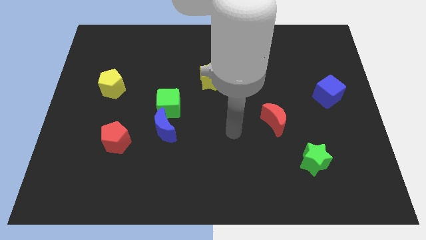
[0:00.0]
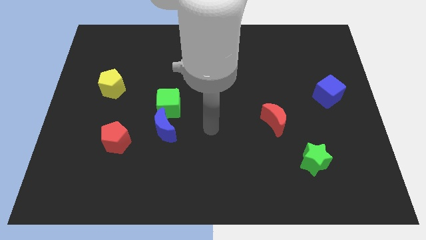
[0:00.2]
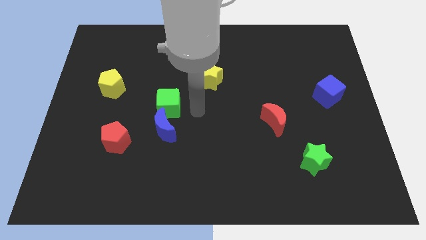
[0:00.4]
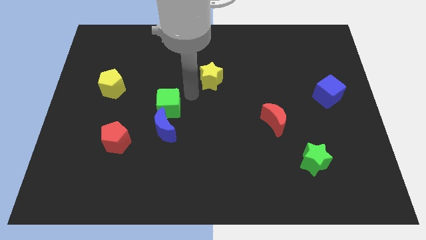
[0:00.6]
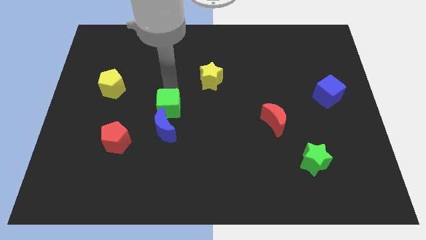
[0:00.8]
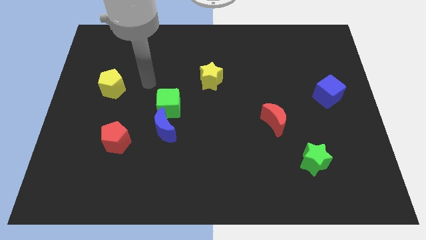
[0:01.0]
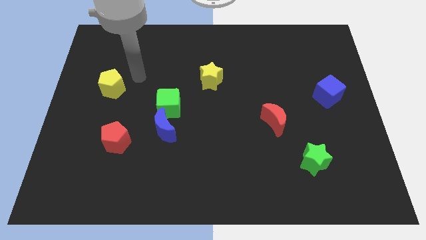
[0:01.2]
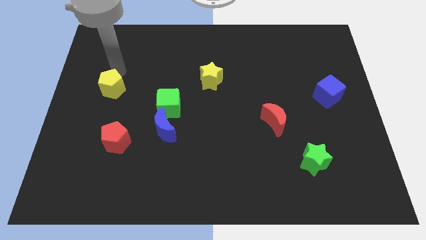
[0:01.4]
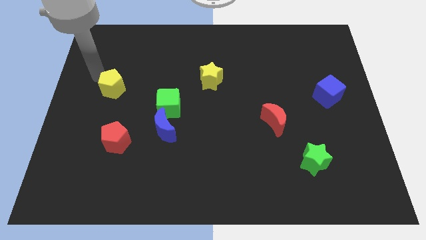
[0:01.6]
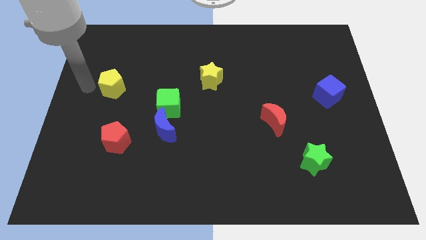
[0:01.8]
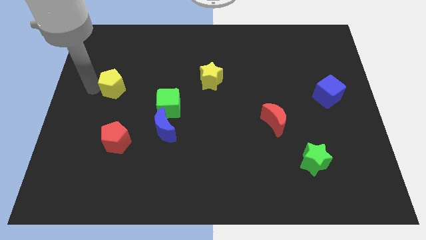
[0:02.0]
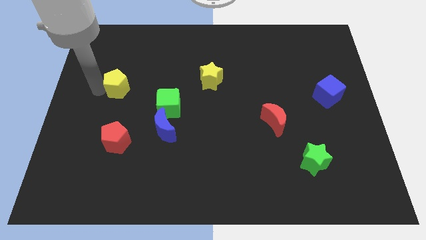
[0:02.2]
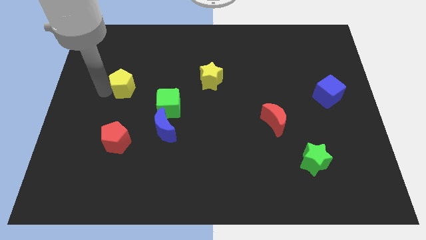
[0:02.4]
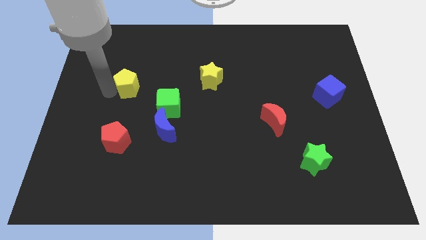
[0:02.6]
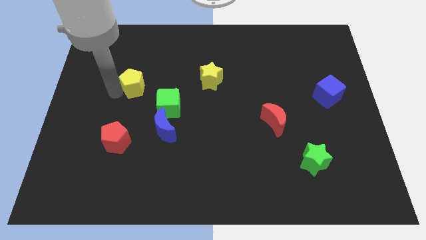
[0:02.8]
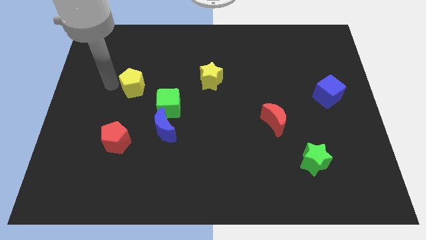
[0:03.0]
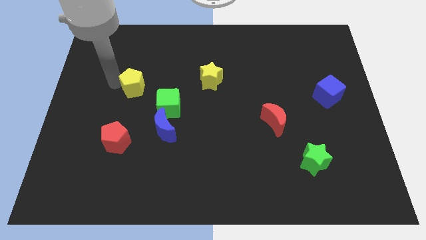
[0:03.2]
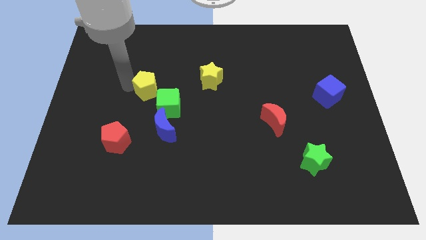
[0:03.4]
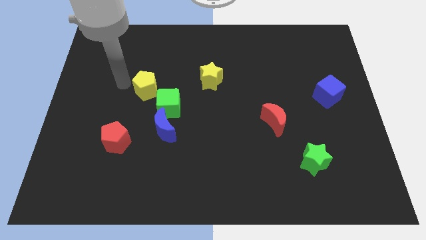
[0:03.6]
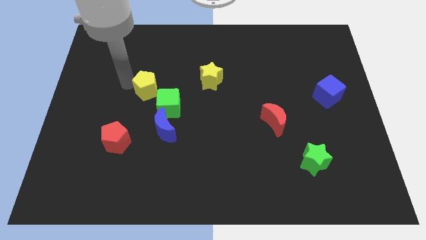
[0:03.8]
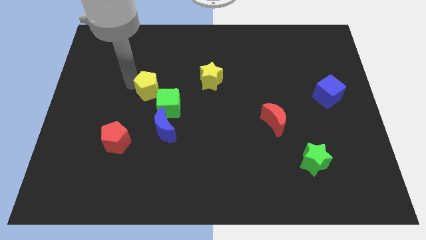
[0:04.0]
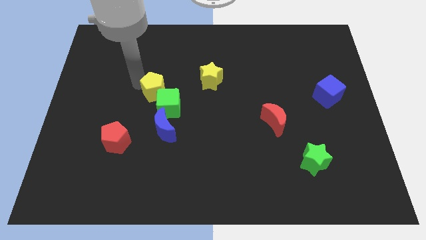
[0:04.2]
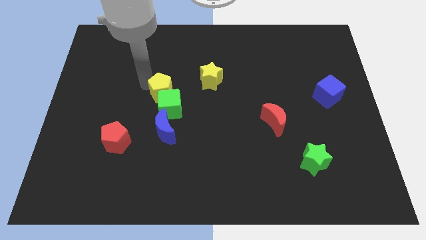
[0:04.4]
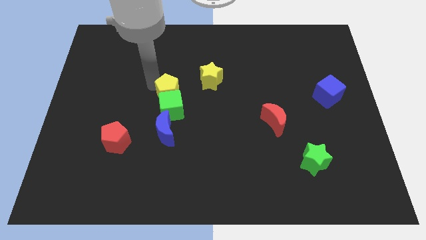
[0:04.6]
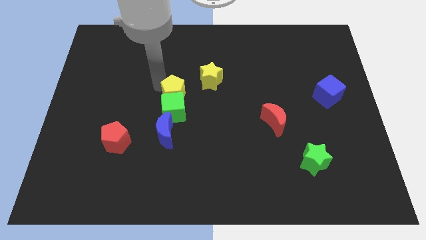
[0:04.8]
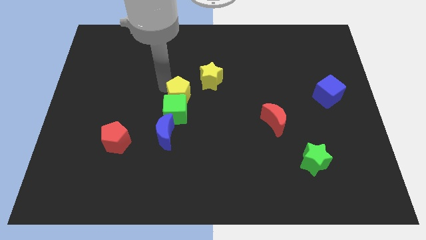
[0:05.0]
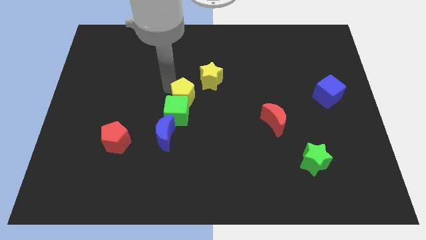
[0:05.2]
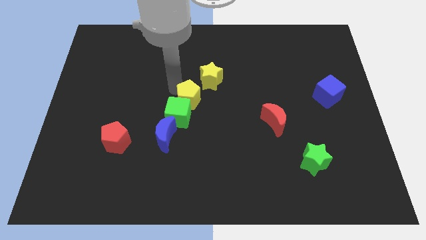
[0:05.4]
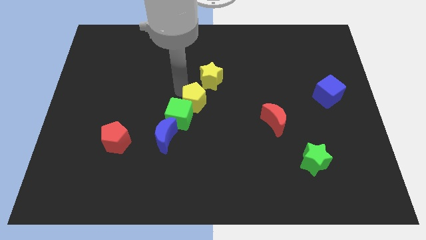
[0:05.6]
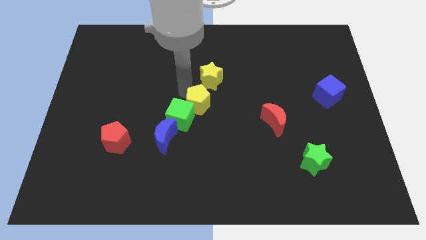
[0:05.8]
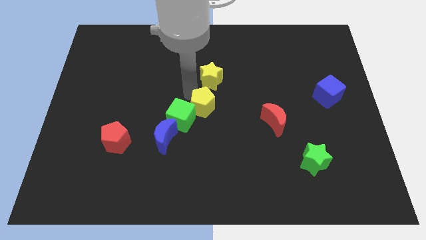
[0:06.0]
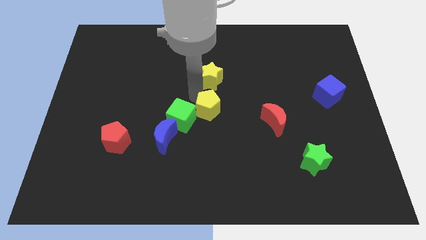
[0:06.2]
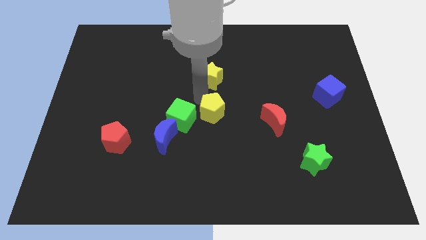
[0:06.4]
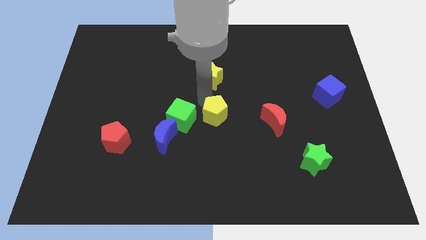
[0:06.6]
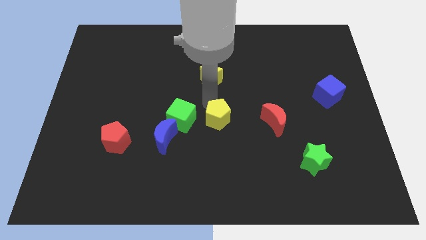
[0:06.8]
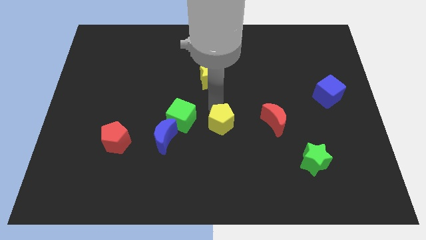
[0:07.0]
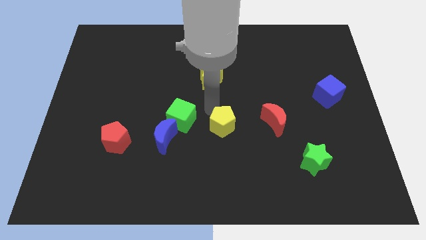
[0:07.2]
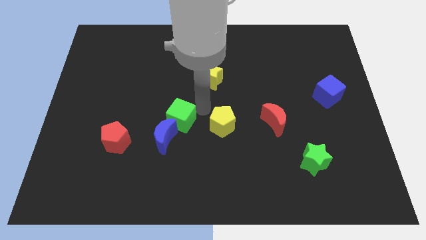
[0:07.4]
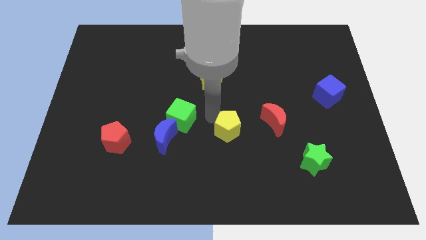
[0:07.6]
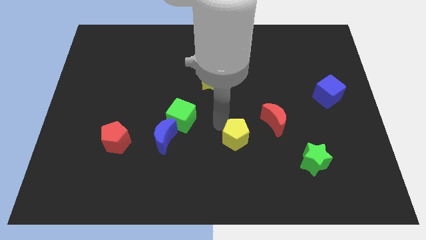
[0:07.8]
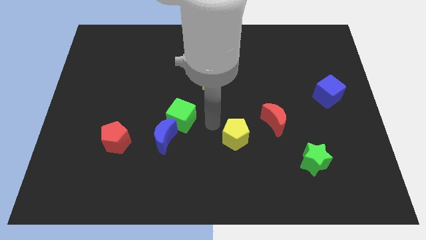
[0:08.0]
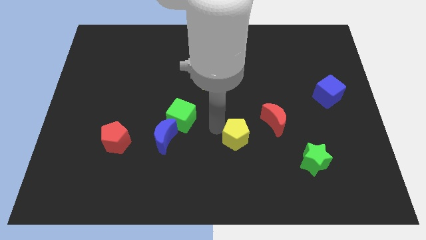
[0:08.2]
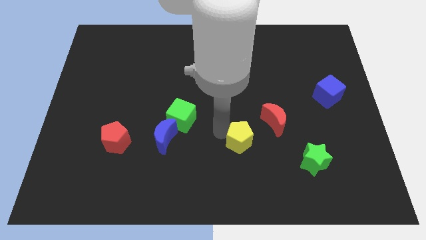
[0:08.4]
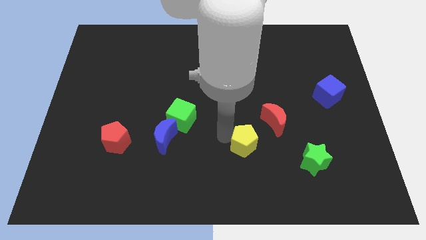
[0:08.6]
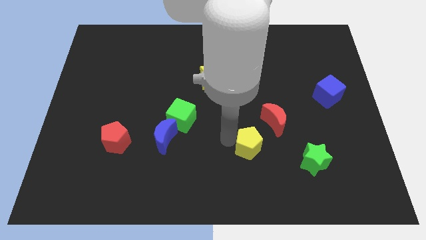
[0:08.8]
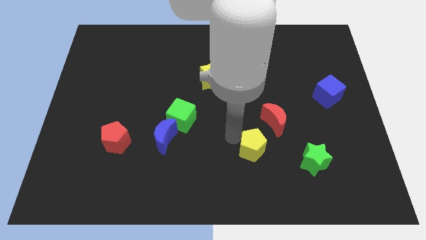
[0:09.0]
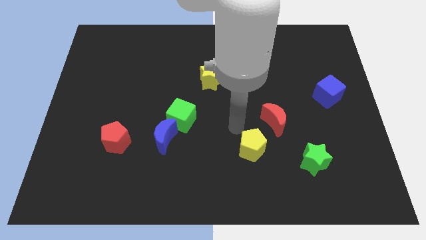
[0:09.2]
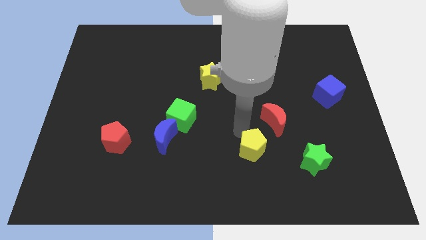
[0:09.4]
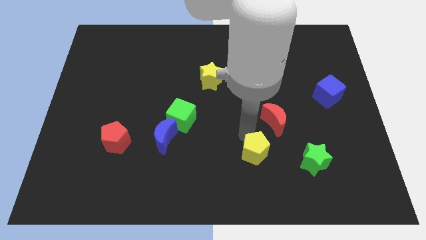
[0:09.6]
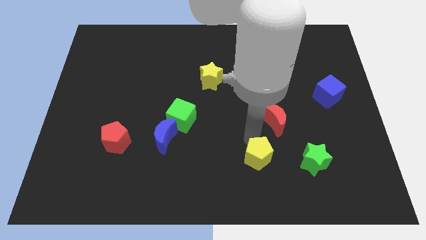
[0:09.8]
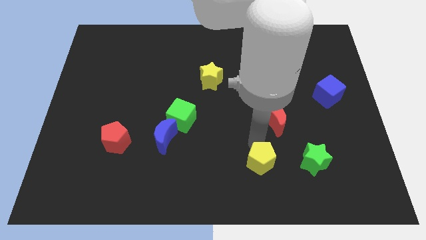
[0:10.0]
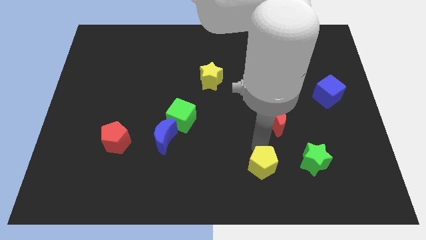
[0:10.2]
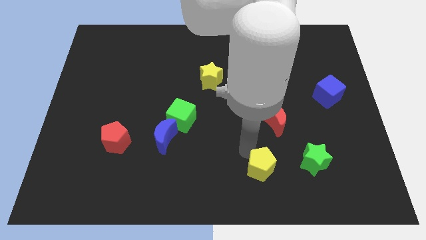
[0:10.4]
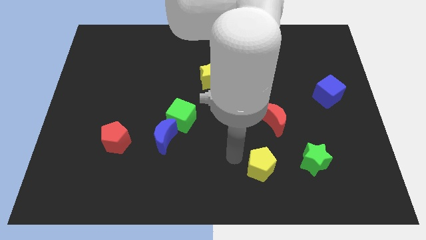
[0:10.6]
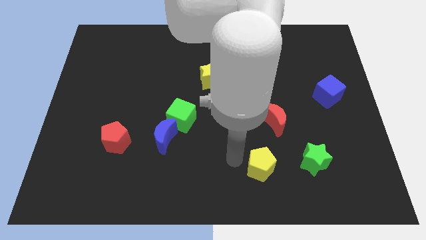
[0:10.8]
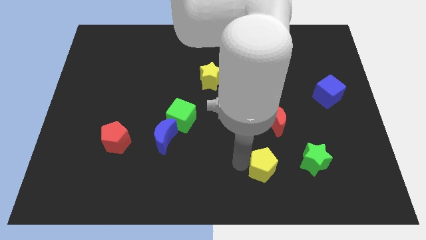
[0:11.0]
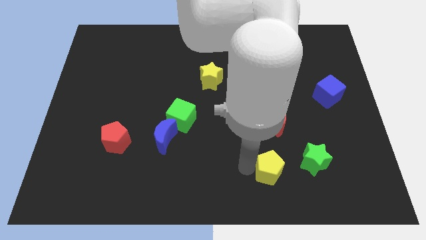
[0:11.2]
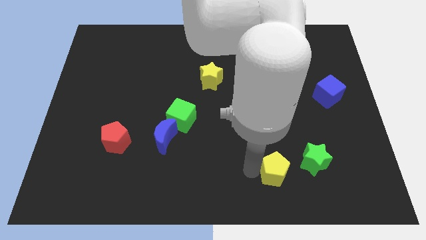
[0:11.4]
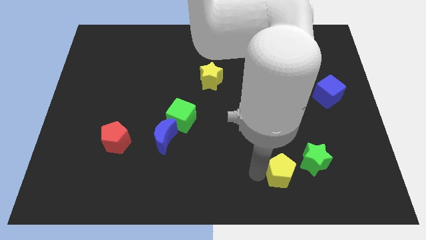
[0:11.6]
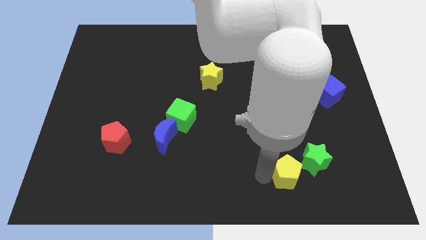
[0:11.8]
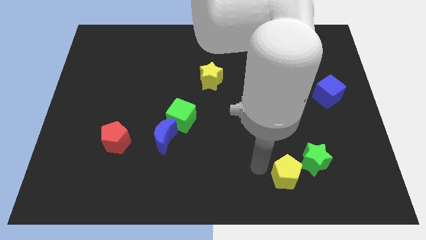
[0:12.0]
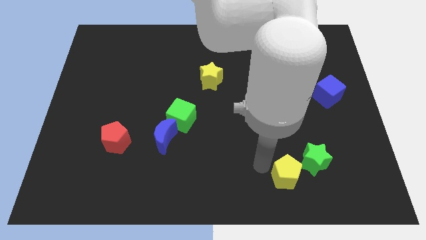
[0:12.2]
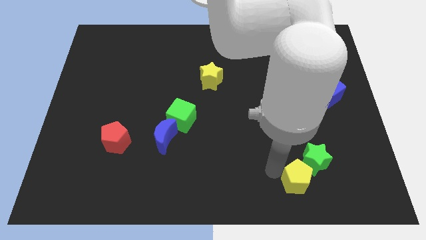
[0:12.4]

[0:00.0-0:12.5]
move the yellow pentagon close to the green star

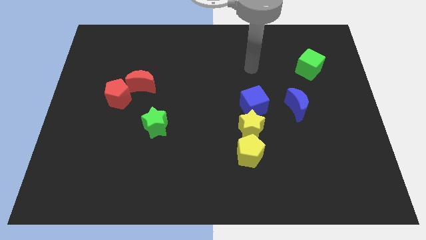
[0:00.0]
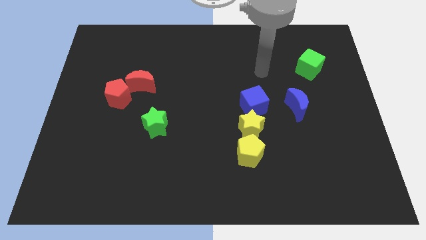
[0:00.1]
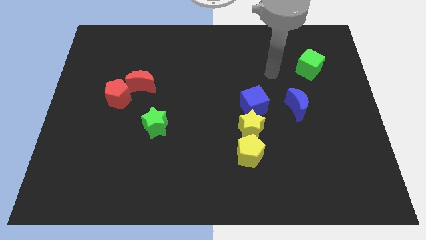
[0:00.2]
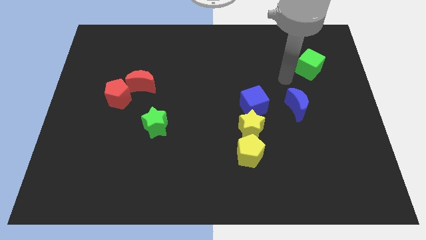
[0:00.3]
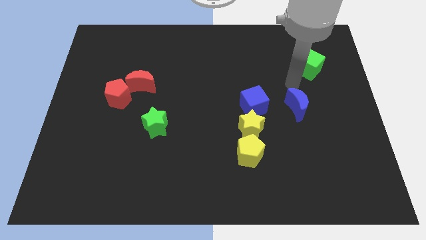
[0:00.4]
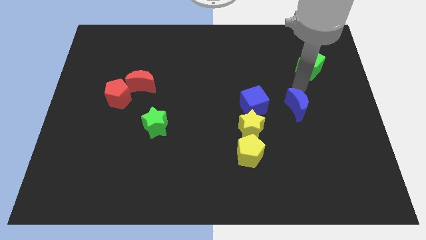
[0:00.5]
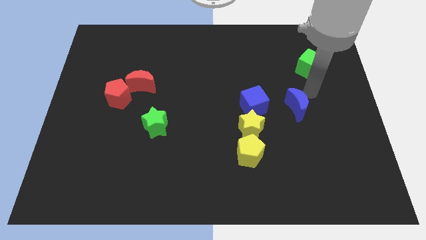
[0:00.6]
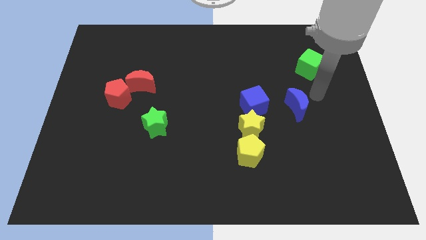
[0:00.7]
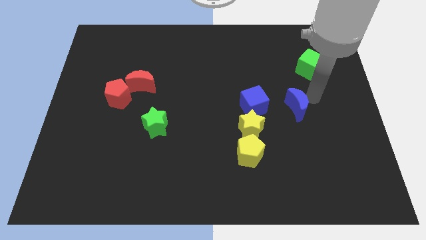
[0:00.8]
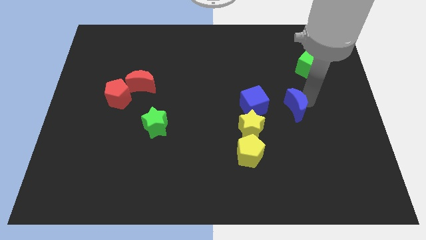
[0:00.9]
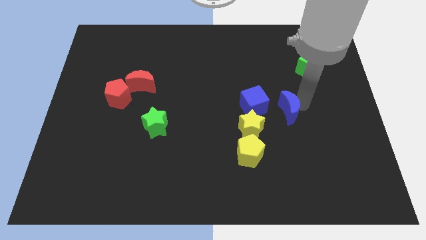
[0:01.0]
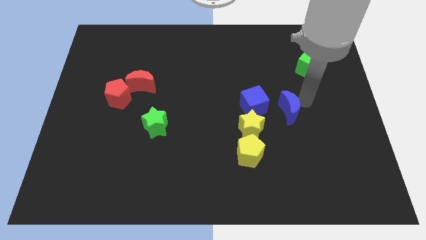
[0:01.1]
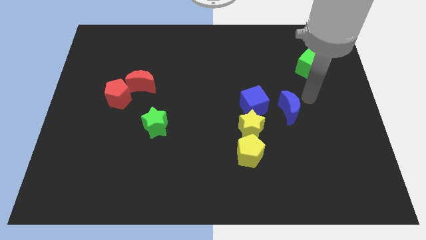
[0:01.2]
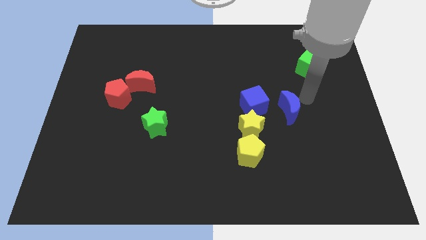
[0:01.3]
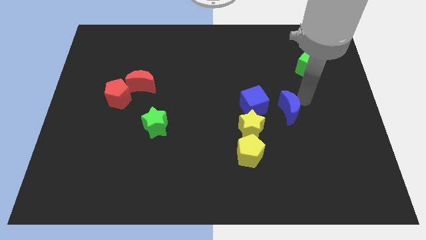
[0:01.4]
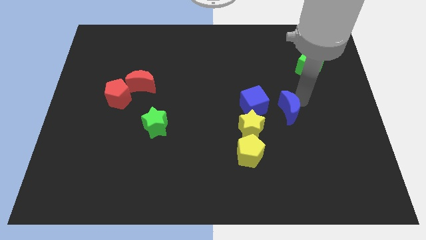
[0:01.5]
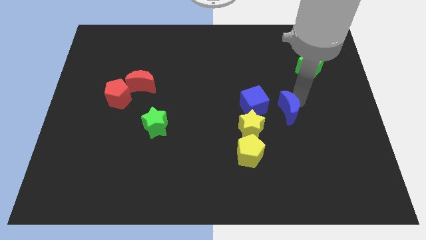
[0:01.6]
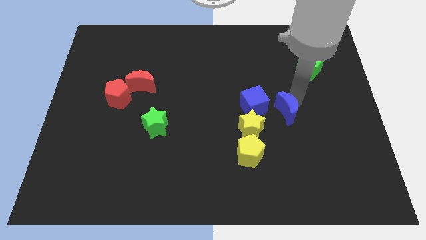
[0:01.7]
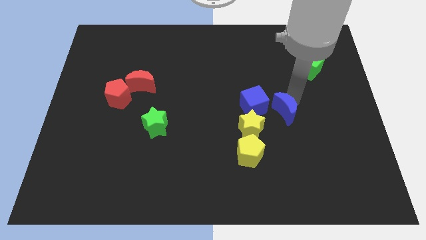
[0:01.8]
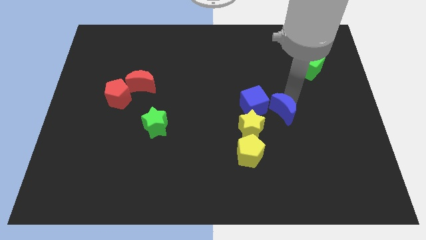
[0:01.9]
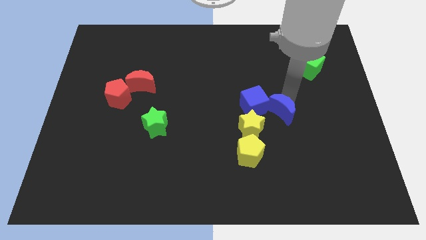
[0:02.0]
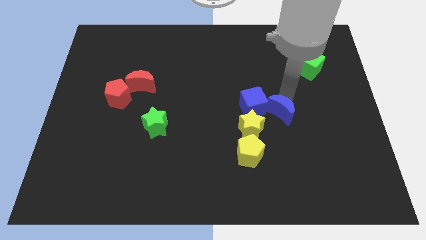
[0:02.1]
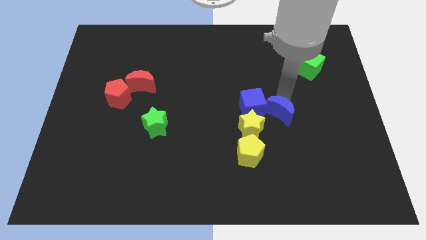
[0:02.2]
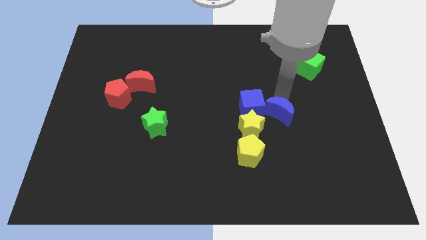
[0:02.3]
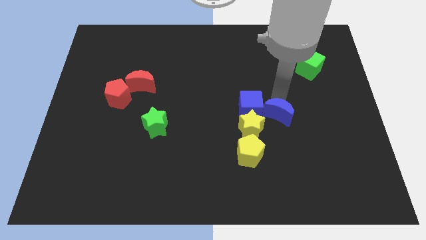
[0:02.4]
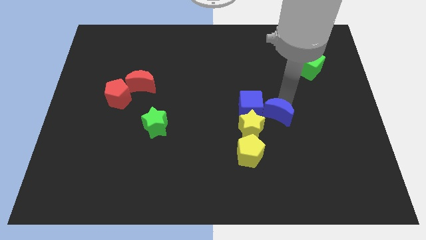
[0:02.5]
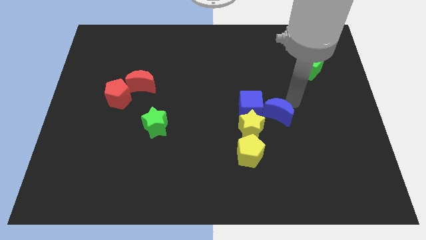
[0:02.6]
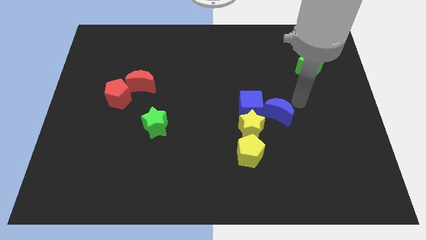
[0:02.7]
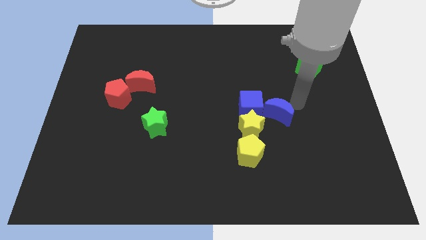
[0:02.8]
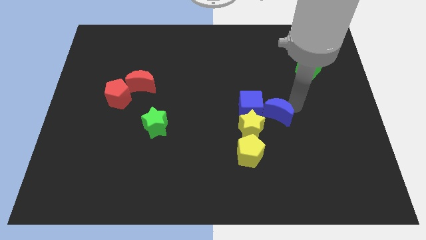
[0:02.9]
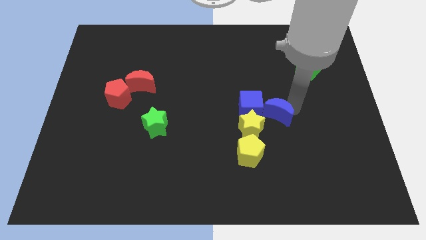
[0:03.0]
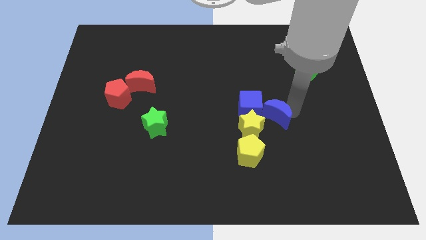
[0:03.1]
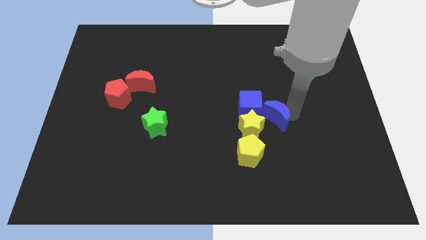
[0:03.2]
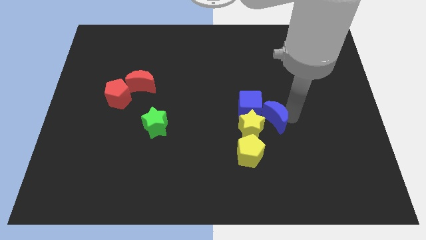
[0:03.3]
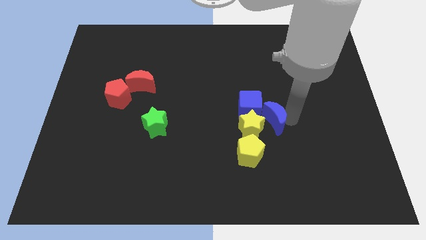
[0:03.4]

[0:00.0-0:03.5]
slide the blue moon next to the yellow star
